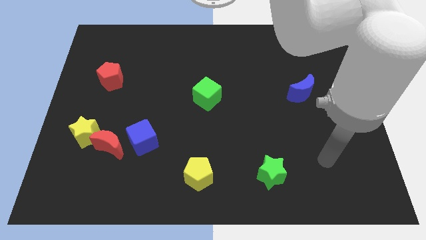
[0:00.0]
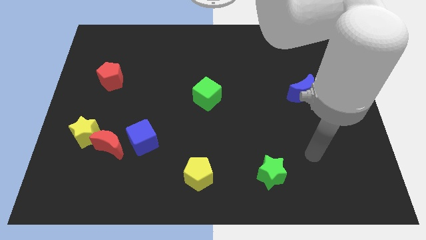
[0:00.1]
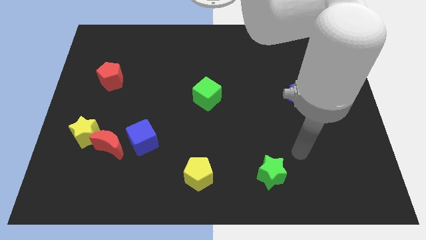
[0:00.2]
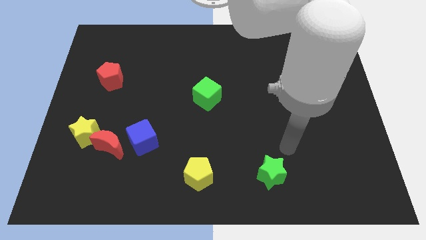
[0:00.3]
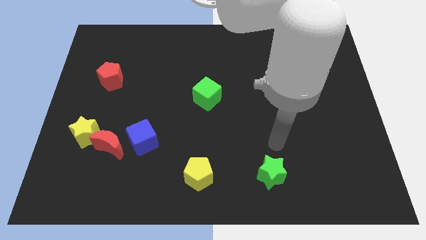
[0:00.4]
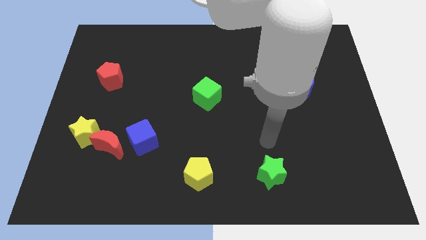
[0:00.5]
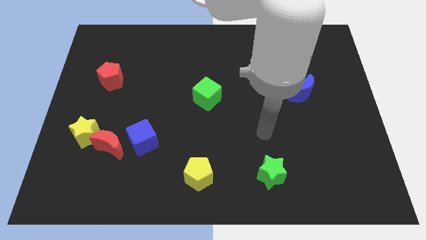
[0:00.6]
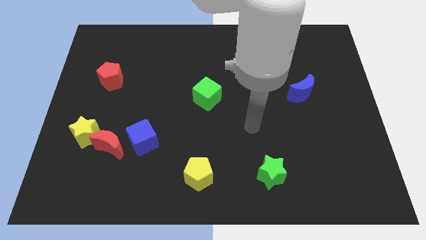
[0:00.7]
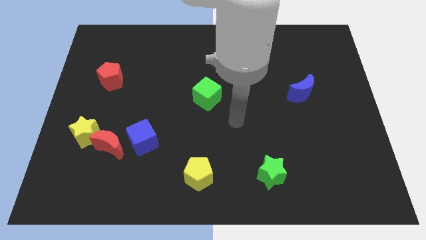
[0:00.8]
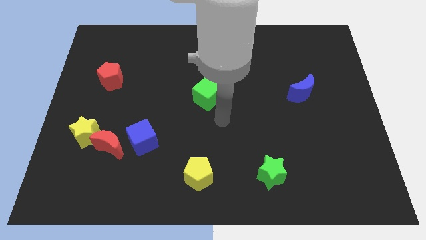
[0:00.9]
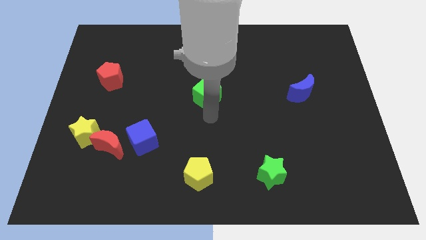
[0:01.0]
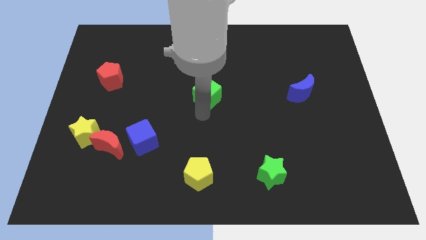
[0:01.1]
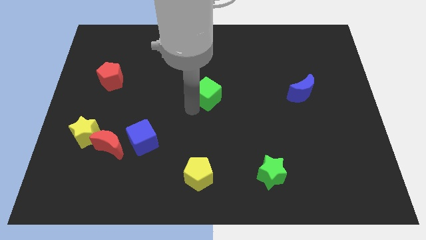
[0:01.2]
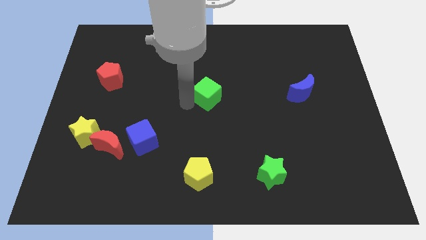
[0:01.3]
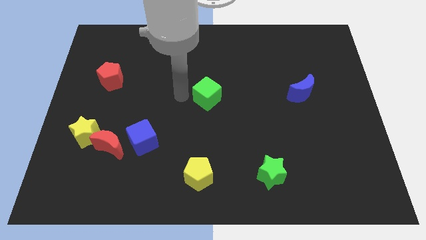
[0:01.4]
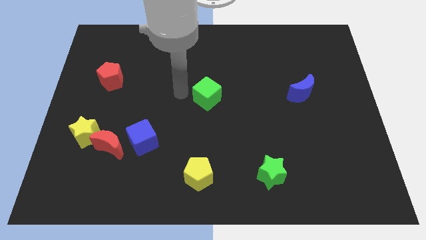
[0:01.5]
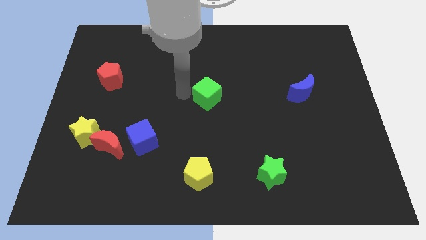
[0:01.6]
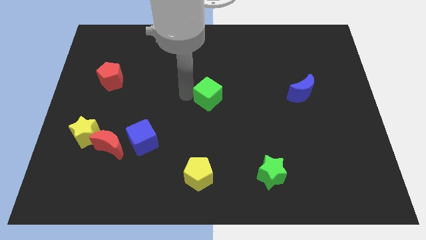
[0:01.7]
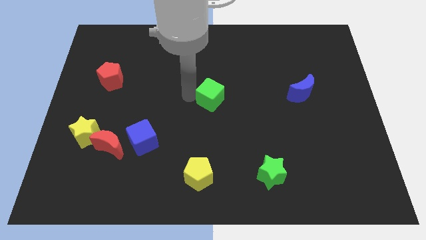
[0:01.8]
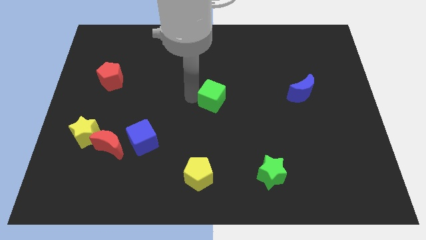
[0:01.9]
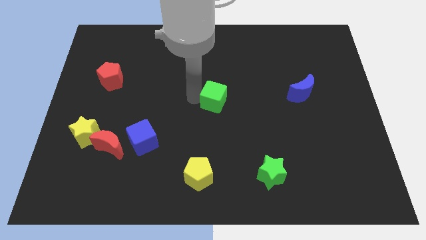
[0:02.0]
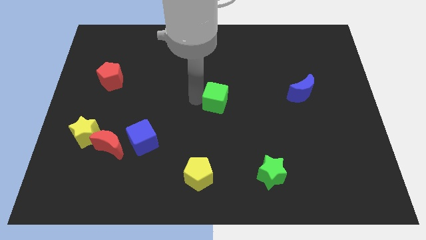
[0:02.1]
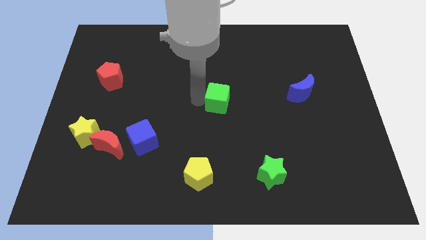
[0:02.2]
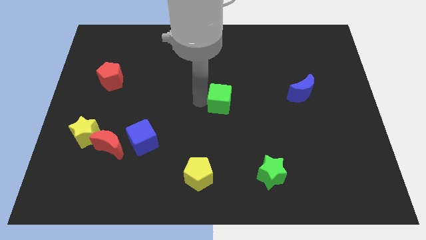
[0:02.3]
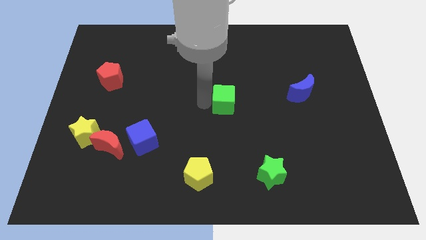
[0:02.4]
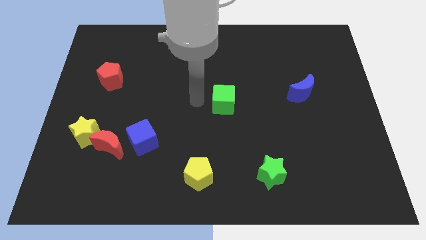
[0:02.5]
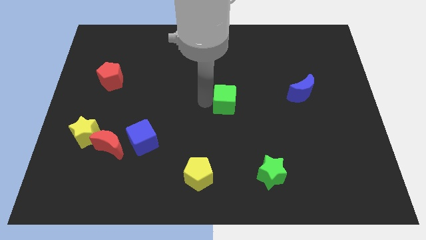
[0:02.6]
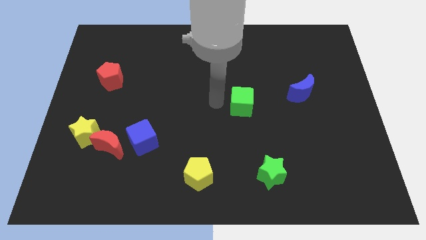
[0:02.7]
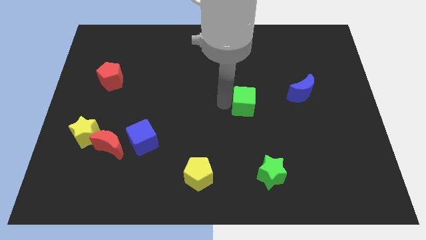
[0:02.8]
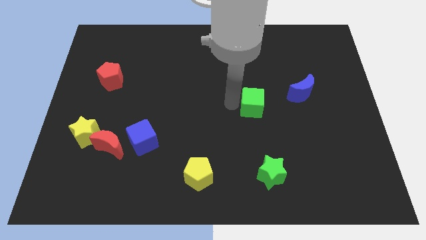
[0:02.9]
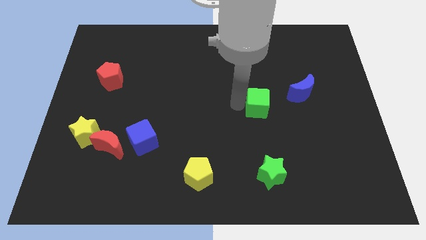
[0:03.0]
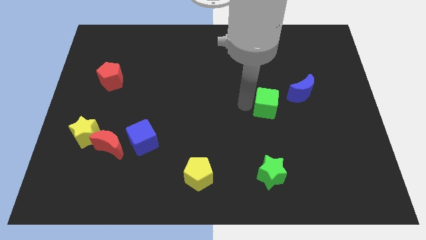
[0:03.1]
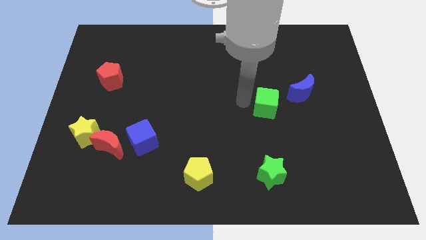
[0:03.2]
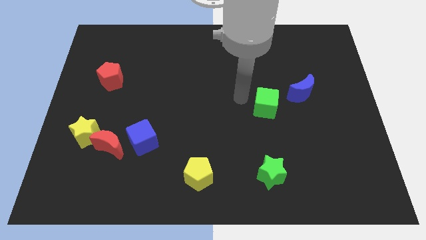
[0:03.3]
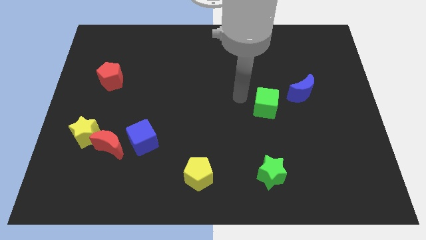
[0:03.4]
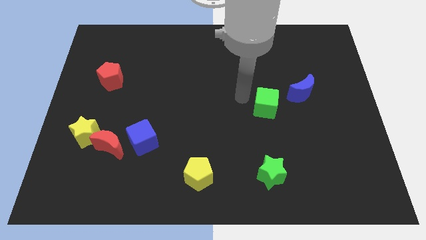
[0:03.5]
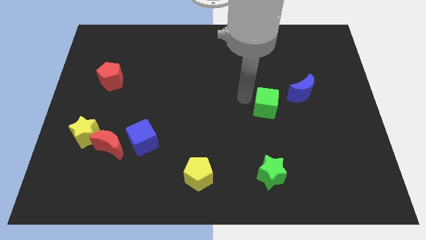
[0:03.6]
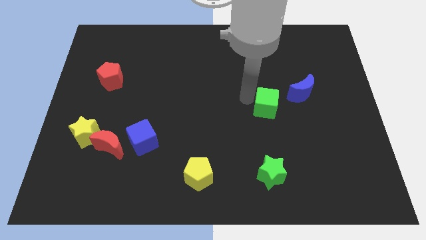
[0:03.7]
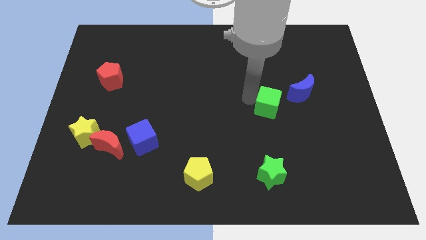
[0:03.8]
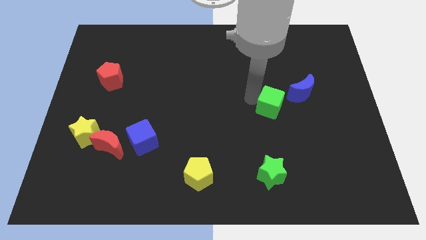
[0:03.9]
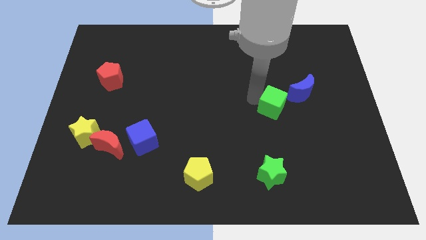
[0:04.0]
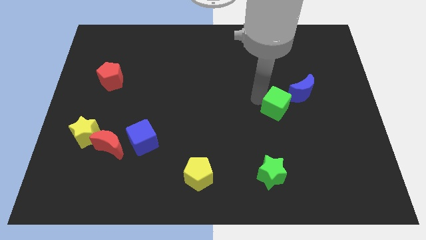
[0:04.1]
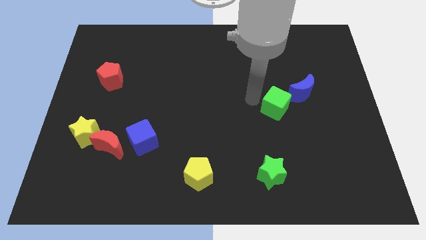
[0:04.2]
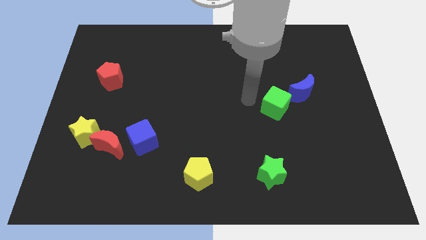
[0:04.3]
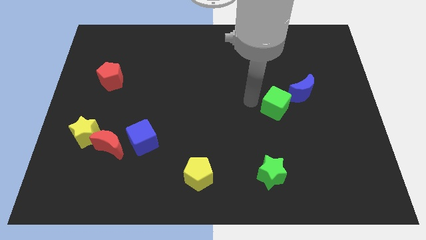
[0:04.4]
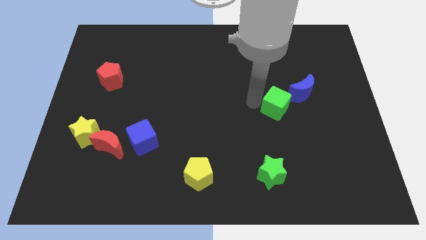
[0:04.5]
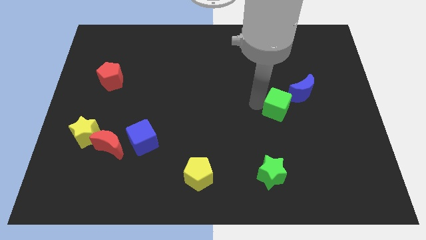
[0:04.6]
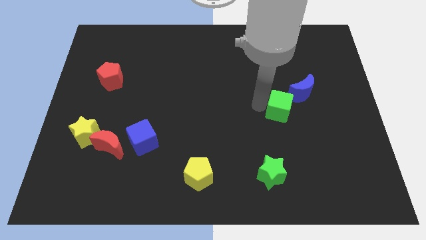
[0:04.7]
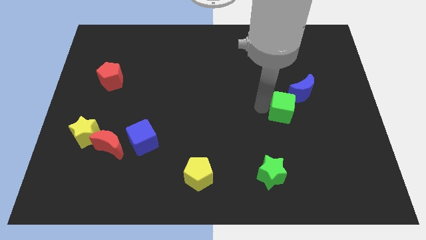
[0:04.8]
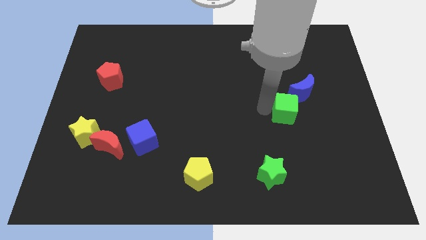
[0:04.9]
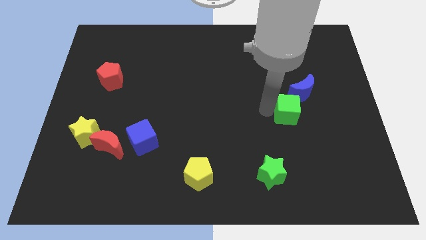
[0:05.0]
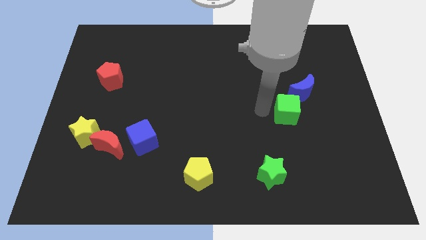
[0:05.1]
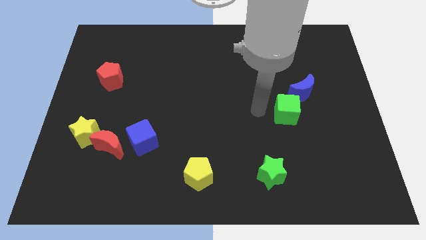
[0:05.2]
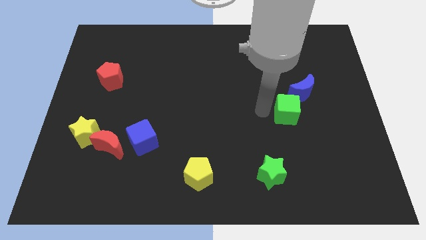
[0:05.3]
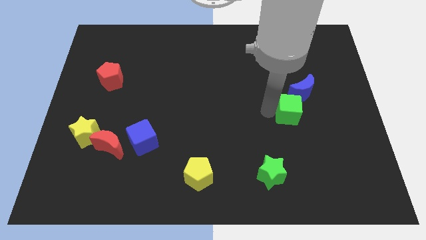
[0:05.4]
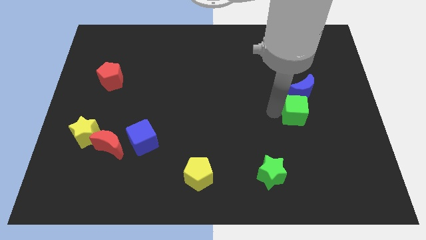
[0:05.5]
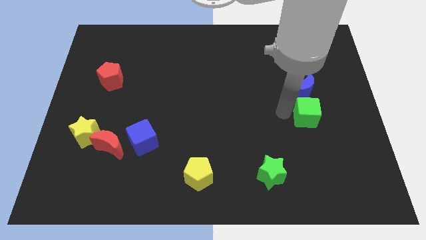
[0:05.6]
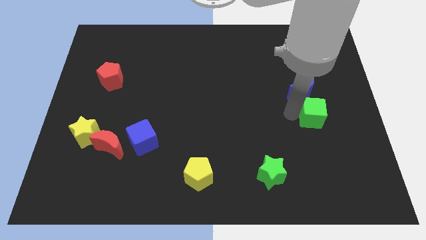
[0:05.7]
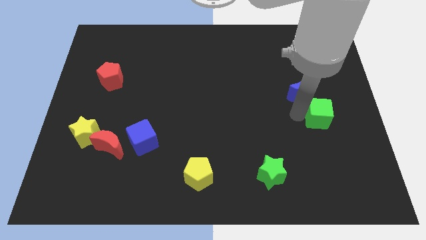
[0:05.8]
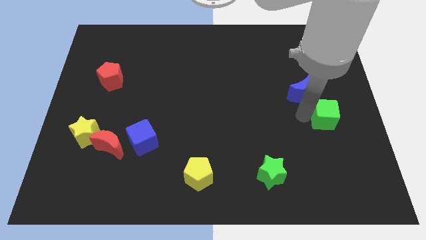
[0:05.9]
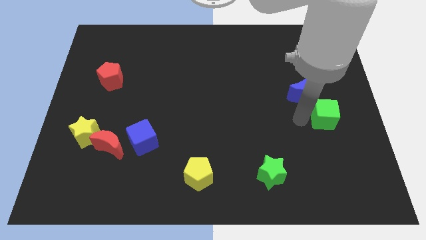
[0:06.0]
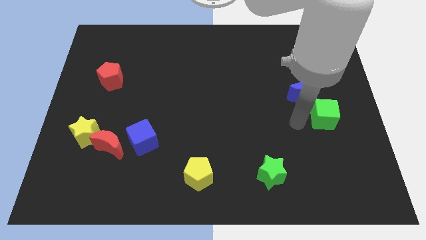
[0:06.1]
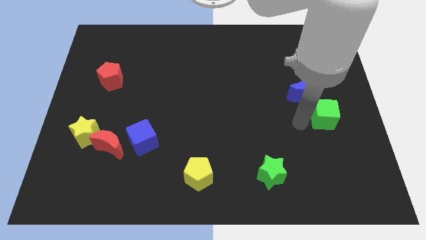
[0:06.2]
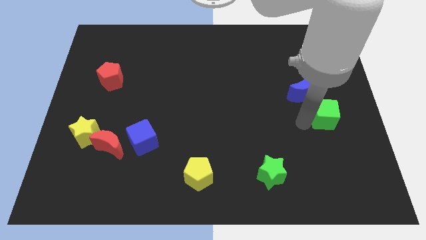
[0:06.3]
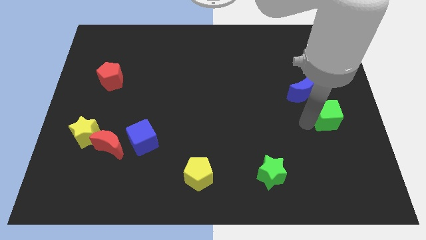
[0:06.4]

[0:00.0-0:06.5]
move the green cube to the right side of the board
